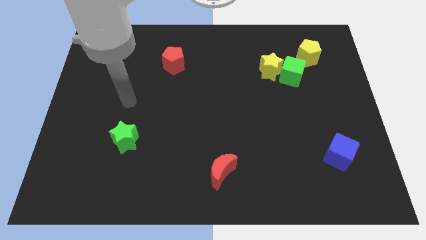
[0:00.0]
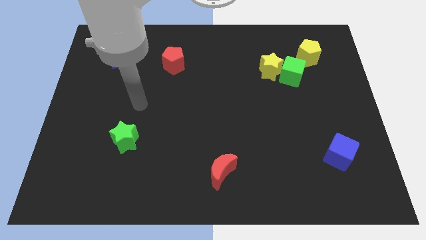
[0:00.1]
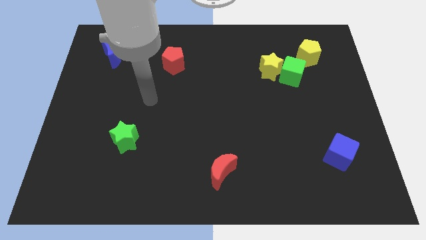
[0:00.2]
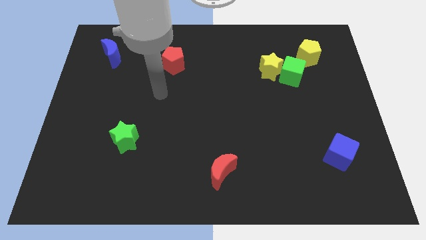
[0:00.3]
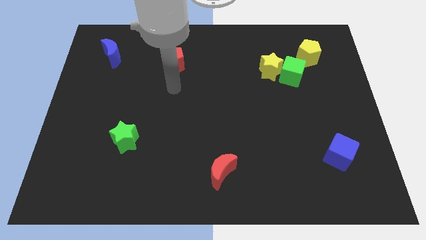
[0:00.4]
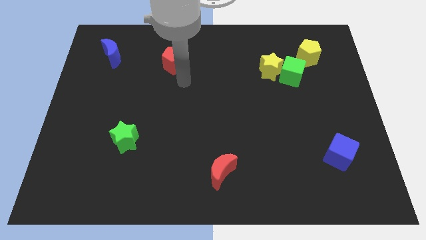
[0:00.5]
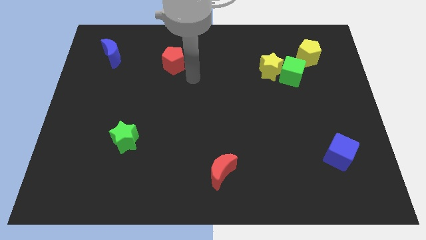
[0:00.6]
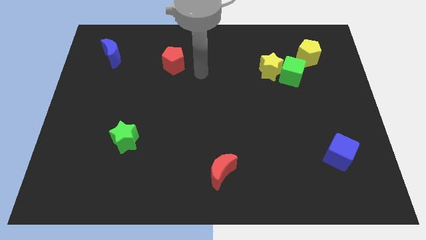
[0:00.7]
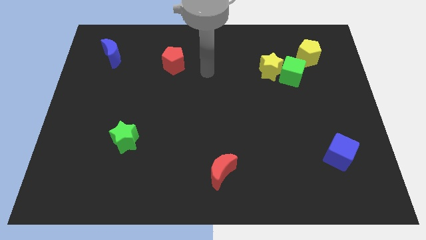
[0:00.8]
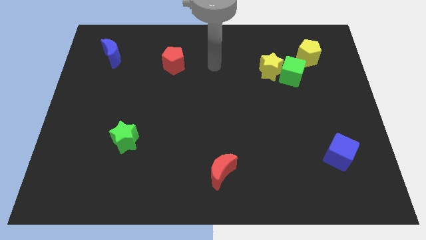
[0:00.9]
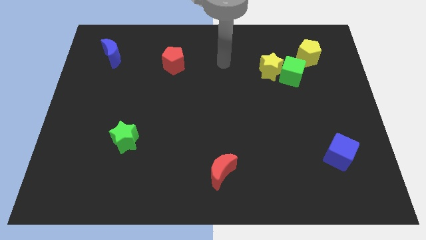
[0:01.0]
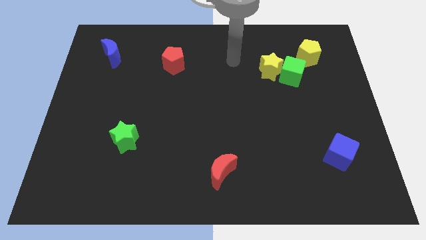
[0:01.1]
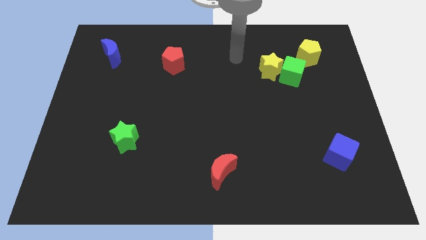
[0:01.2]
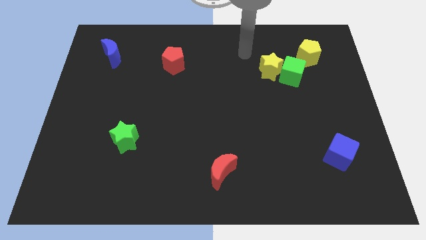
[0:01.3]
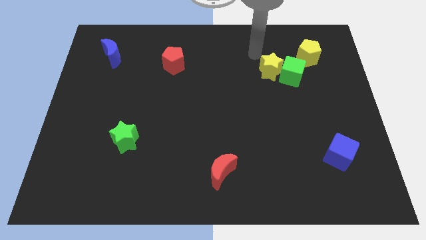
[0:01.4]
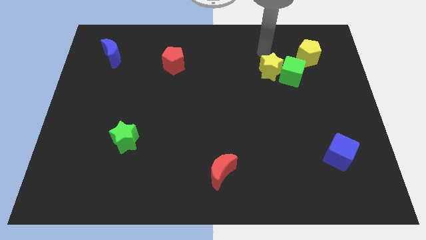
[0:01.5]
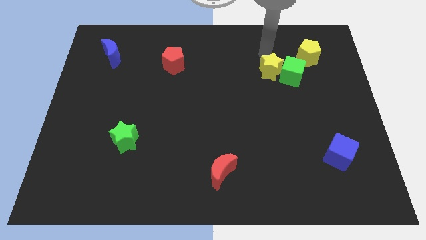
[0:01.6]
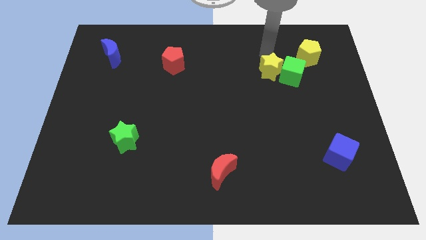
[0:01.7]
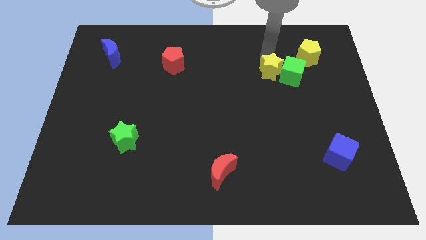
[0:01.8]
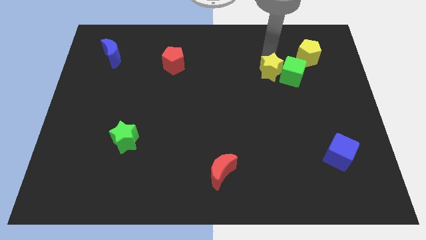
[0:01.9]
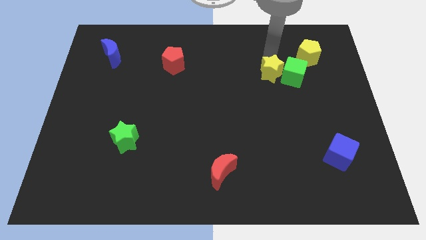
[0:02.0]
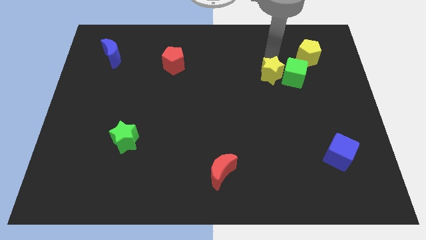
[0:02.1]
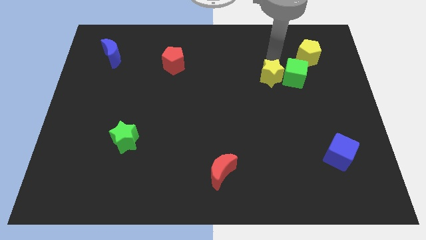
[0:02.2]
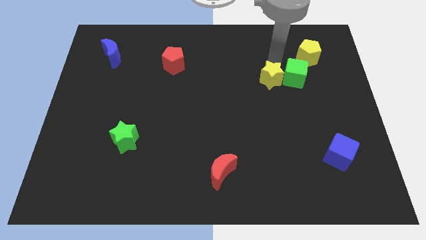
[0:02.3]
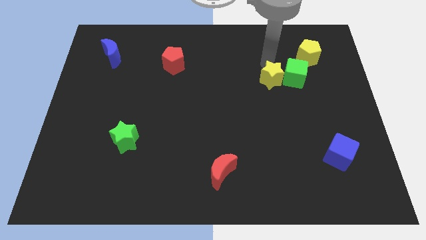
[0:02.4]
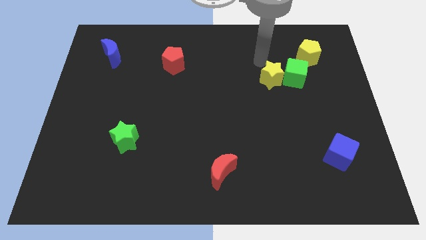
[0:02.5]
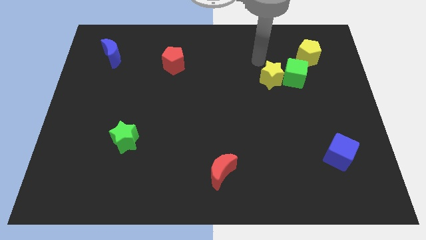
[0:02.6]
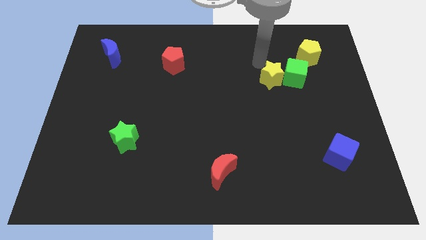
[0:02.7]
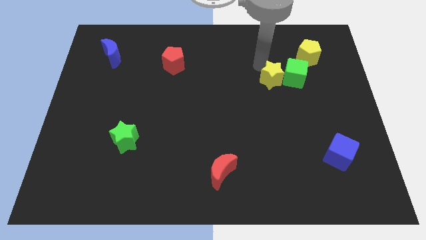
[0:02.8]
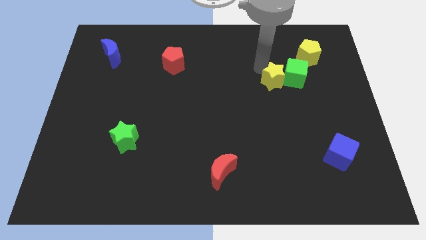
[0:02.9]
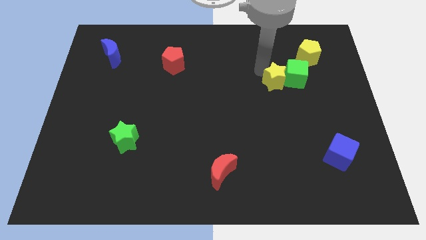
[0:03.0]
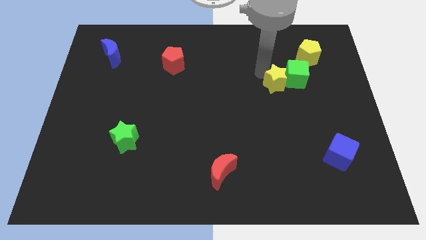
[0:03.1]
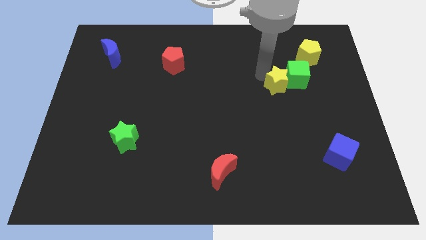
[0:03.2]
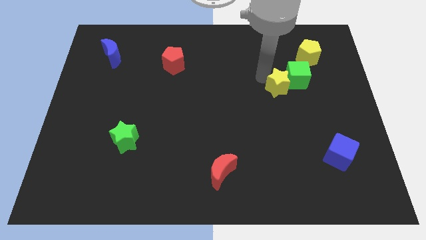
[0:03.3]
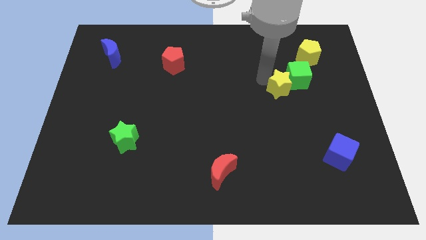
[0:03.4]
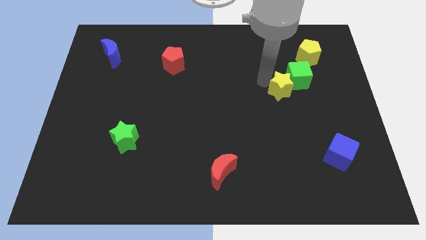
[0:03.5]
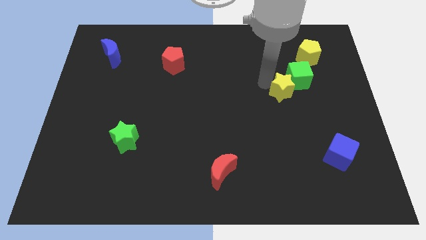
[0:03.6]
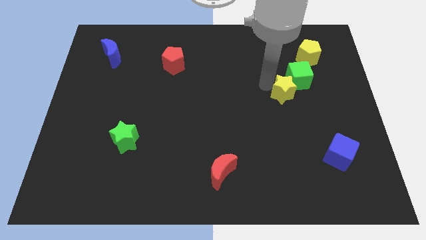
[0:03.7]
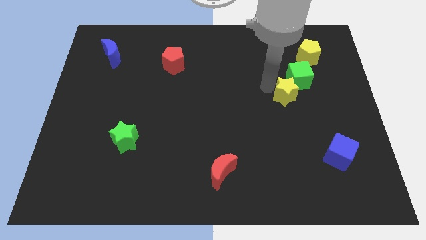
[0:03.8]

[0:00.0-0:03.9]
push the yellow star diagonally downwards and right a little bit

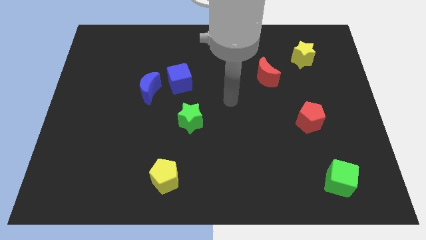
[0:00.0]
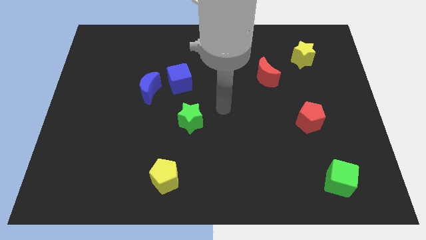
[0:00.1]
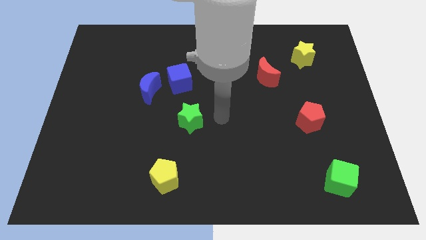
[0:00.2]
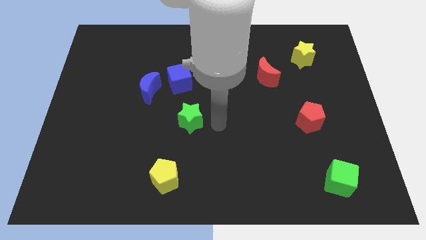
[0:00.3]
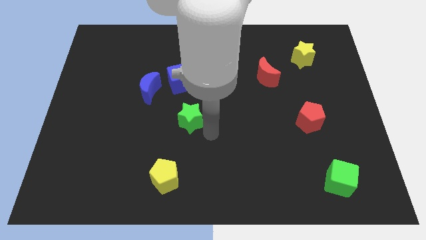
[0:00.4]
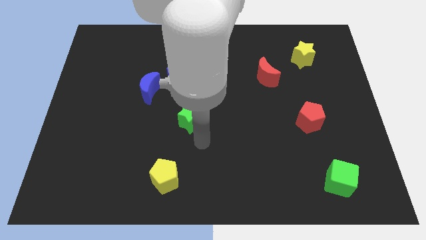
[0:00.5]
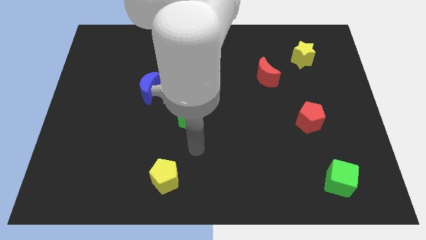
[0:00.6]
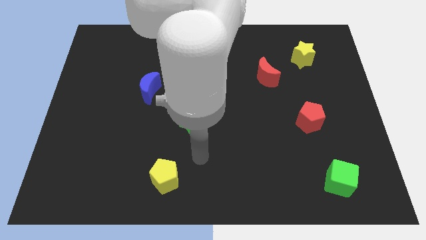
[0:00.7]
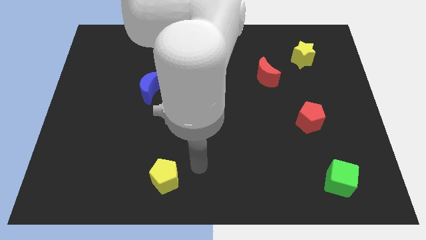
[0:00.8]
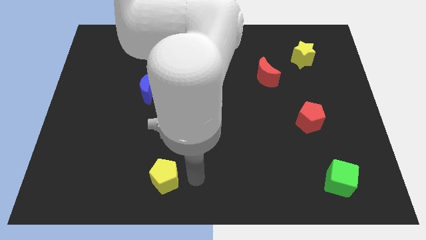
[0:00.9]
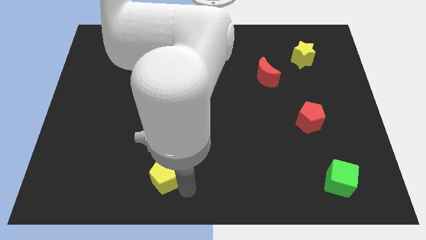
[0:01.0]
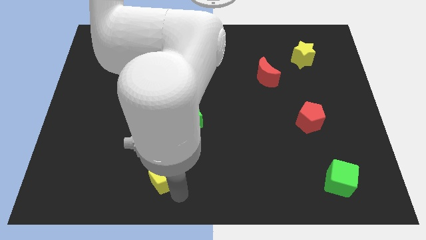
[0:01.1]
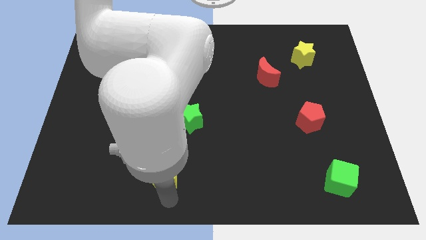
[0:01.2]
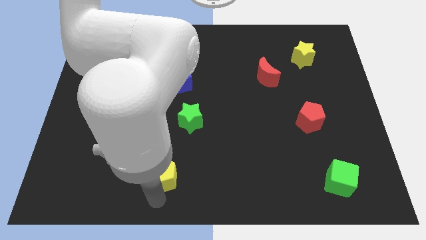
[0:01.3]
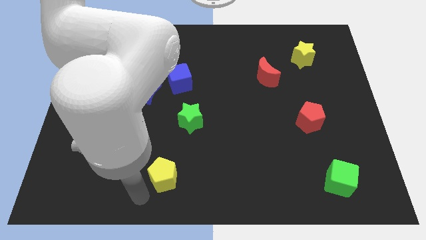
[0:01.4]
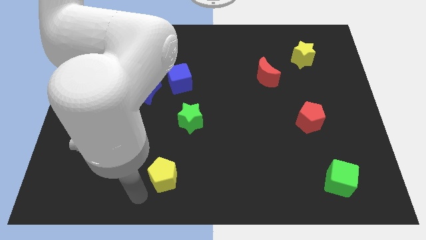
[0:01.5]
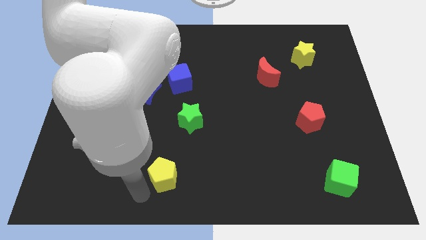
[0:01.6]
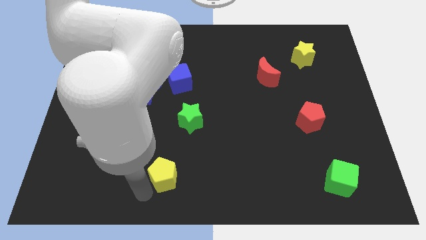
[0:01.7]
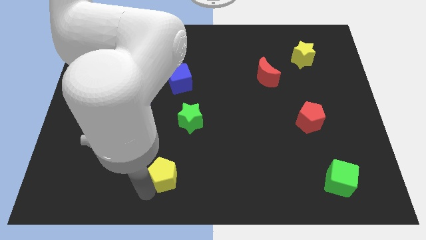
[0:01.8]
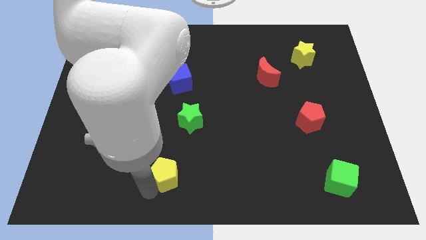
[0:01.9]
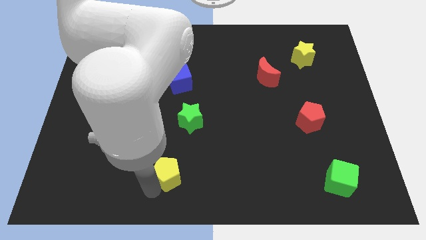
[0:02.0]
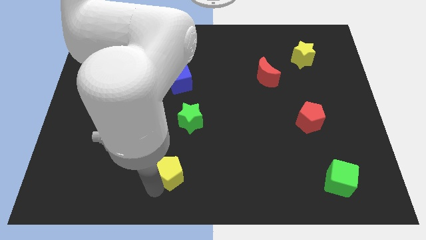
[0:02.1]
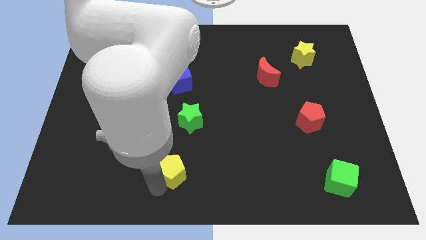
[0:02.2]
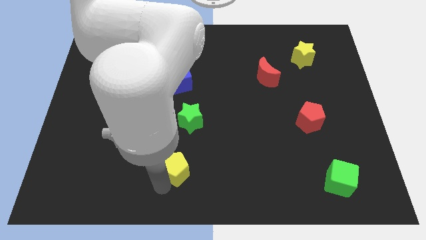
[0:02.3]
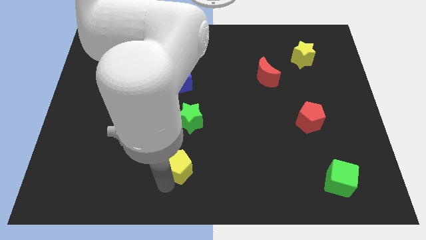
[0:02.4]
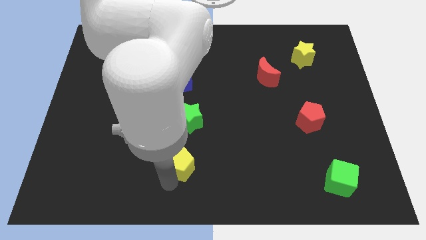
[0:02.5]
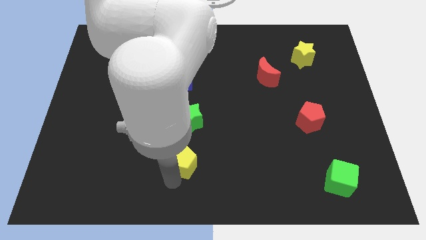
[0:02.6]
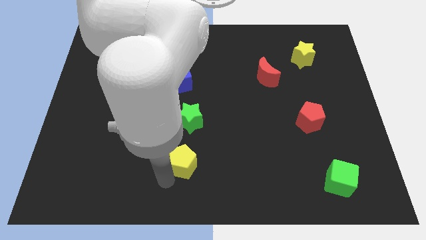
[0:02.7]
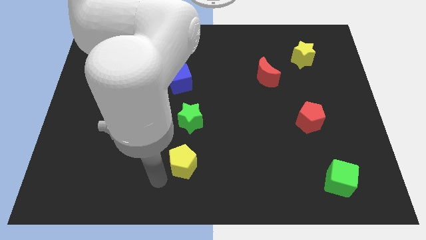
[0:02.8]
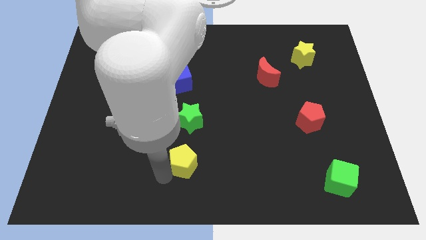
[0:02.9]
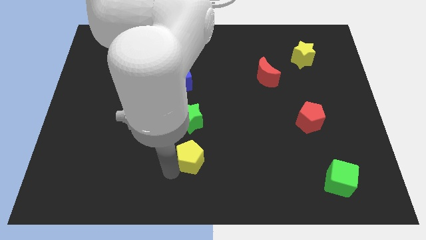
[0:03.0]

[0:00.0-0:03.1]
slightly move the yellow pentagon upwards and to the right

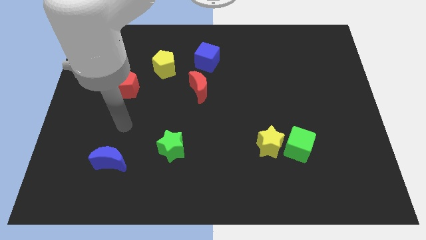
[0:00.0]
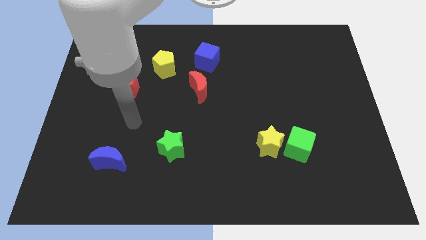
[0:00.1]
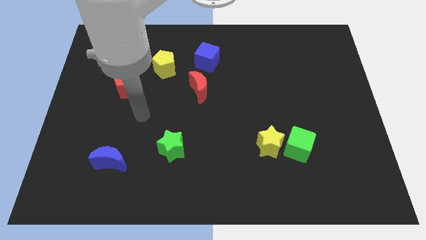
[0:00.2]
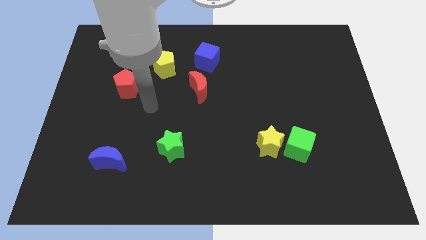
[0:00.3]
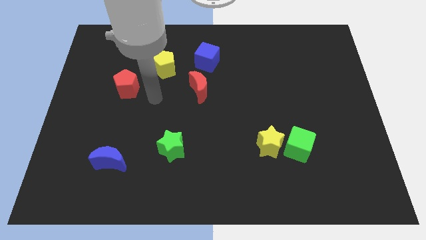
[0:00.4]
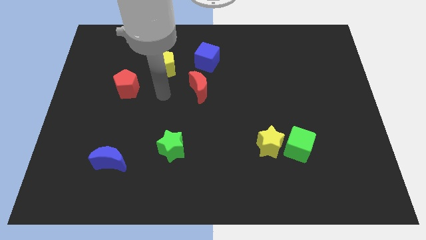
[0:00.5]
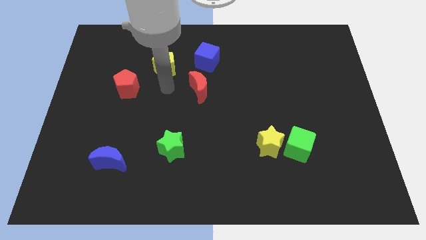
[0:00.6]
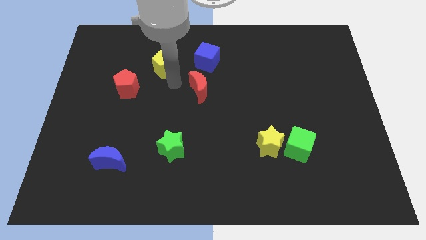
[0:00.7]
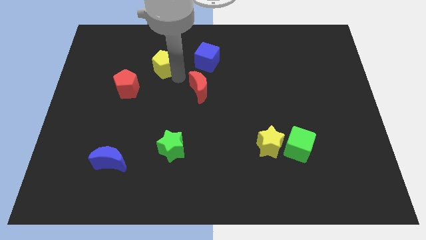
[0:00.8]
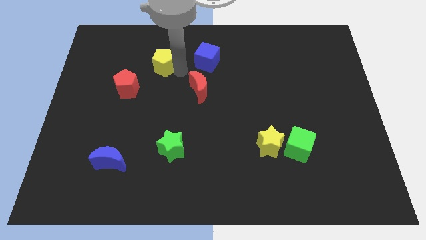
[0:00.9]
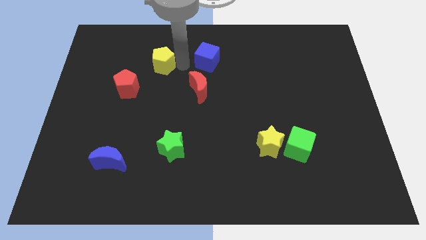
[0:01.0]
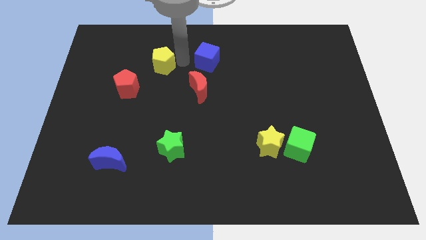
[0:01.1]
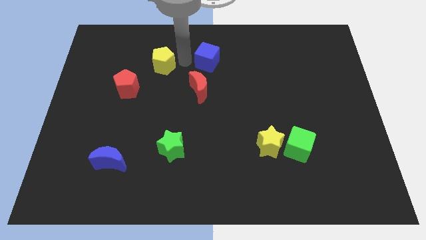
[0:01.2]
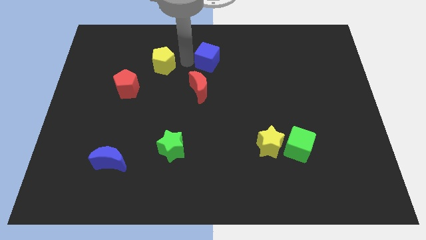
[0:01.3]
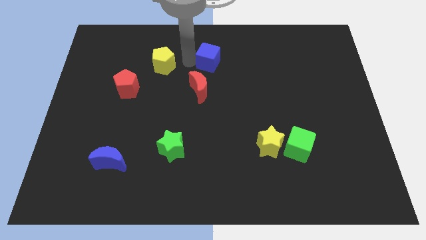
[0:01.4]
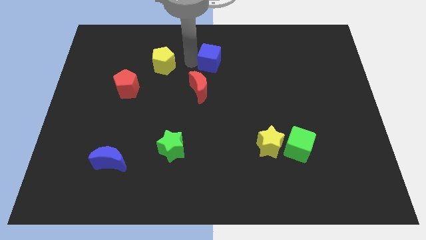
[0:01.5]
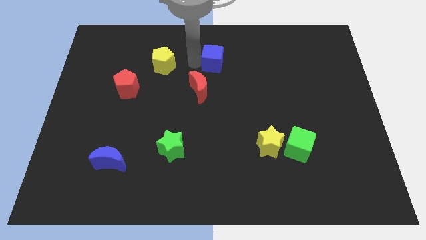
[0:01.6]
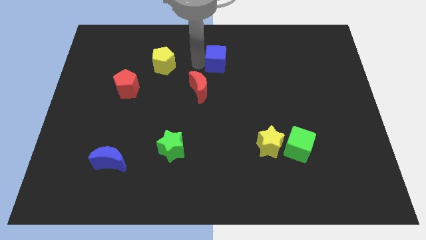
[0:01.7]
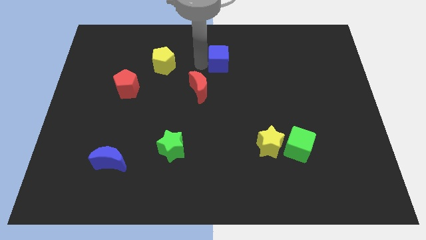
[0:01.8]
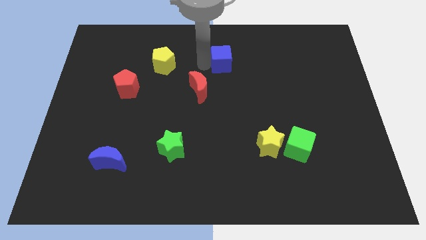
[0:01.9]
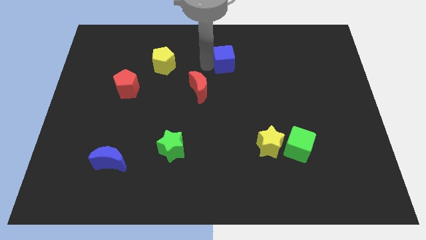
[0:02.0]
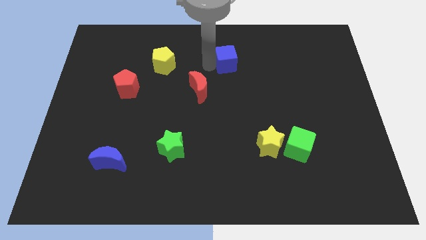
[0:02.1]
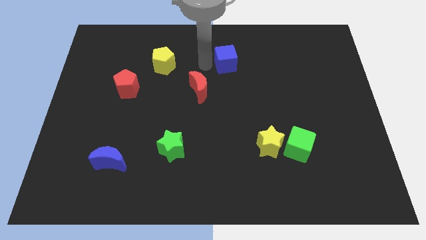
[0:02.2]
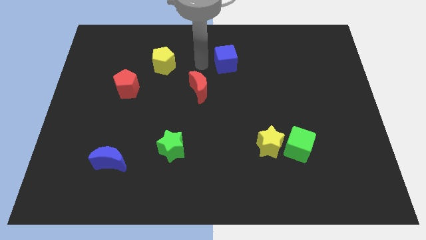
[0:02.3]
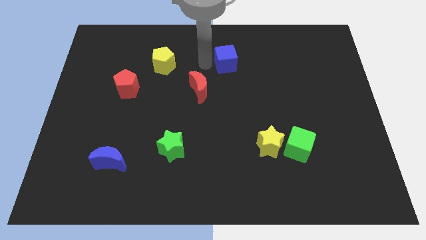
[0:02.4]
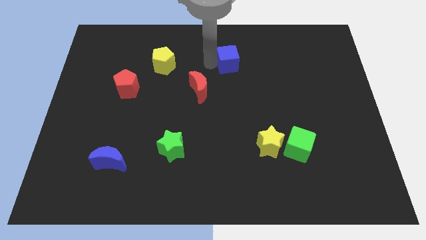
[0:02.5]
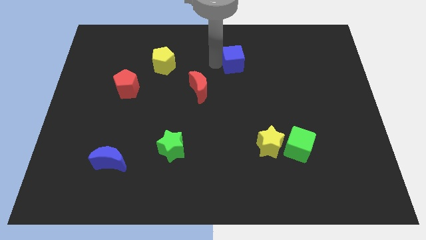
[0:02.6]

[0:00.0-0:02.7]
push the blue cube right a little bit
